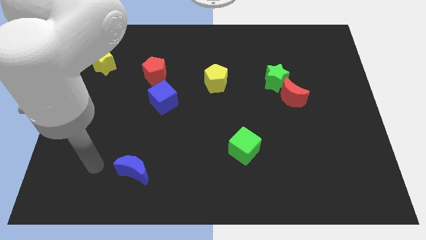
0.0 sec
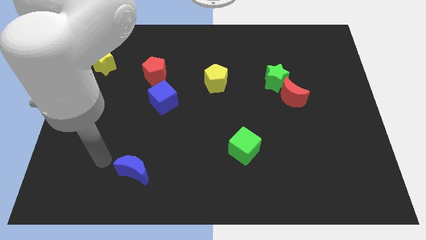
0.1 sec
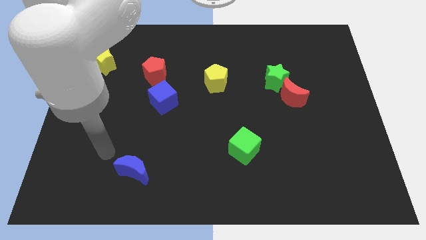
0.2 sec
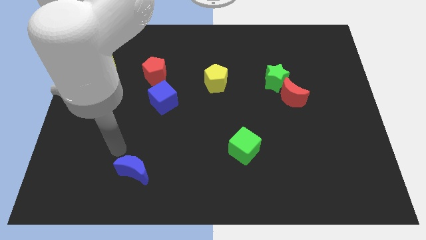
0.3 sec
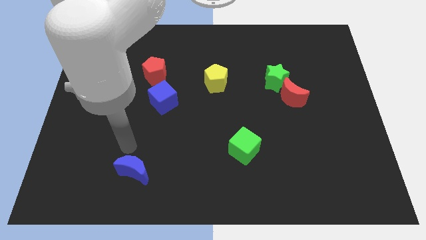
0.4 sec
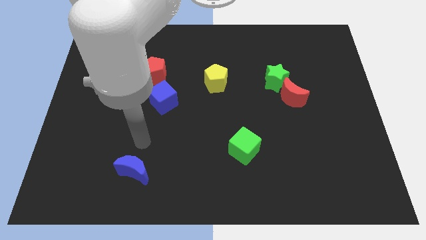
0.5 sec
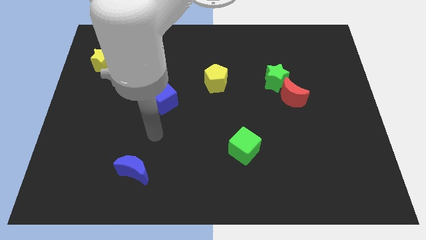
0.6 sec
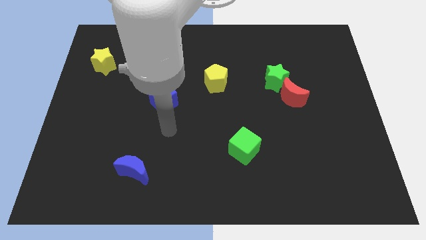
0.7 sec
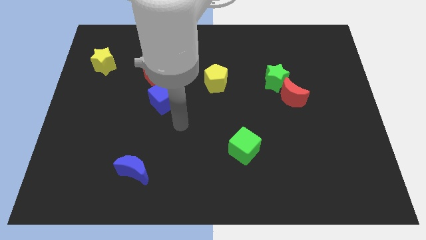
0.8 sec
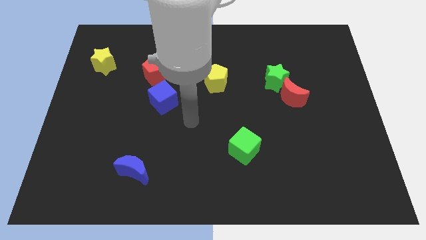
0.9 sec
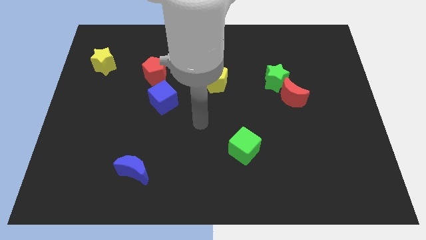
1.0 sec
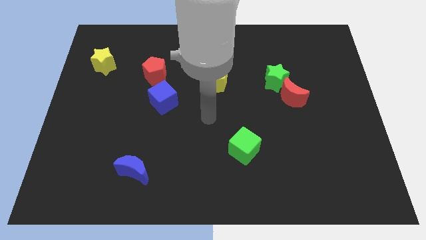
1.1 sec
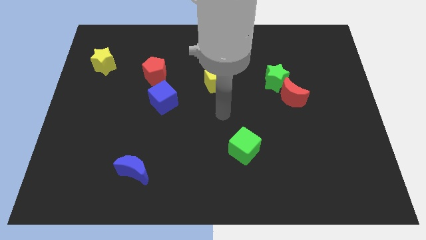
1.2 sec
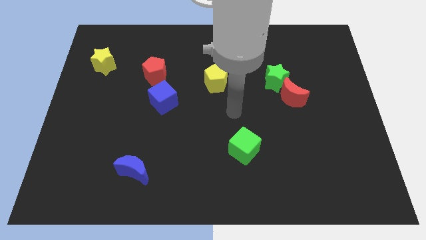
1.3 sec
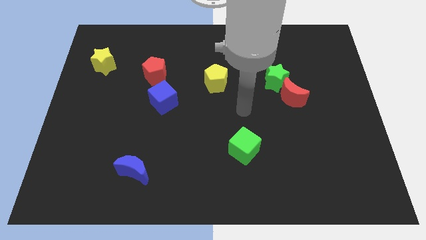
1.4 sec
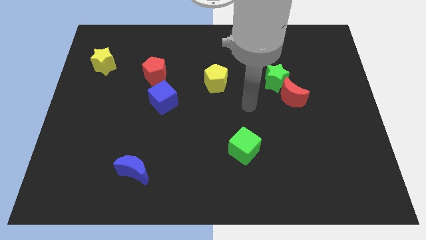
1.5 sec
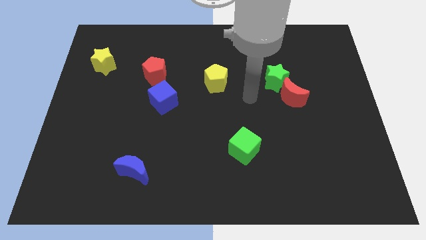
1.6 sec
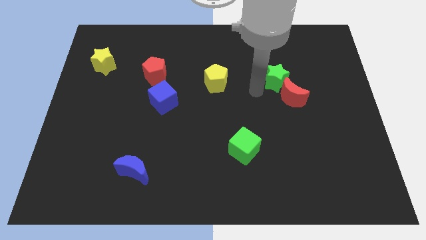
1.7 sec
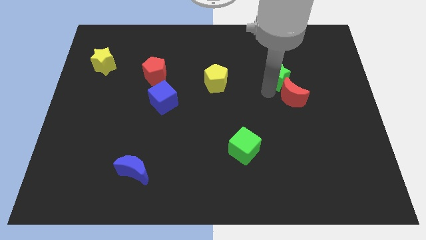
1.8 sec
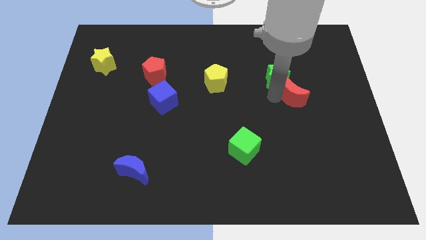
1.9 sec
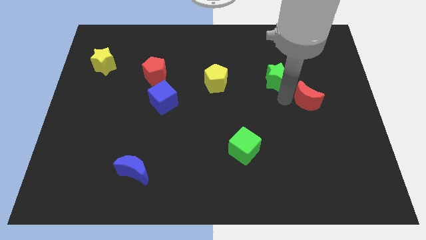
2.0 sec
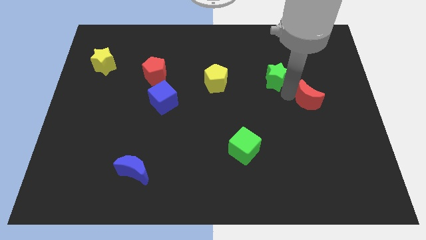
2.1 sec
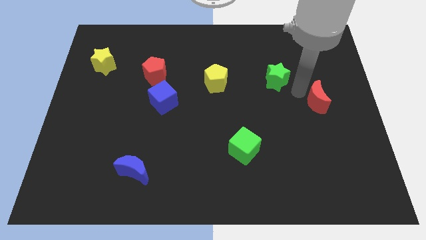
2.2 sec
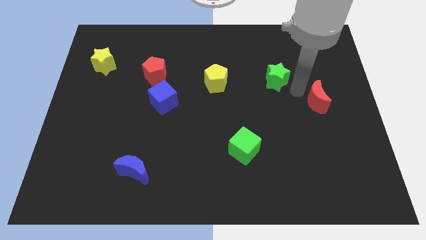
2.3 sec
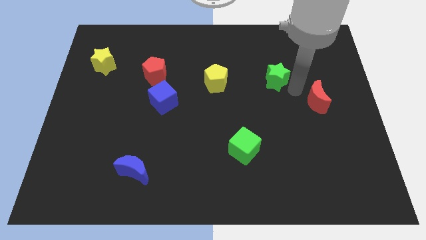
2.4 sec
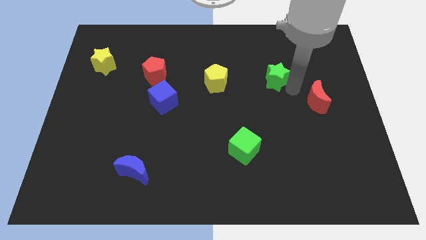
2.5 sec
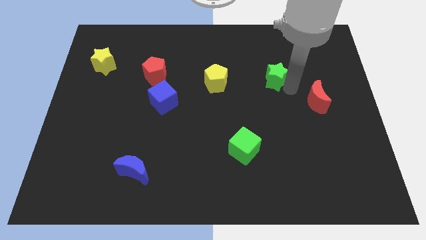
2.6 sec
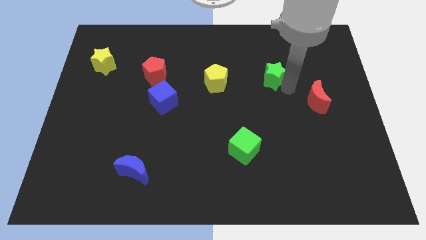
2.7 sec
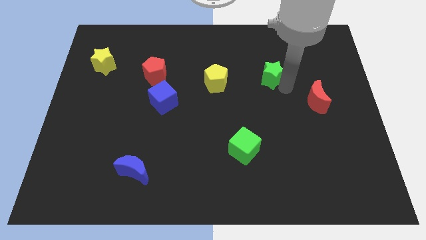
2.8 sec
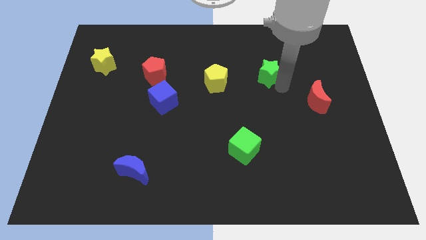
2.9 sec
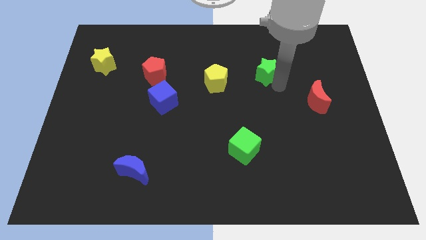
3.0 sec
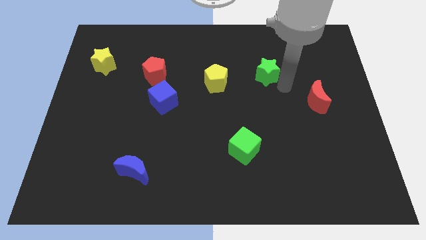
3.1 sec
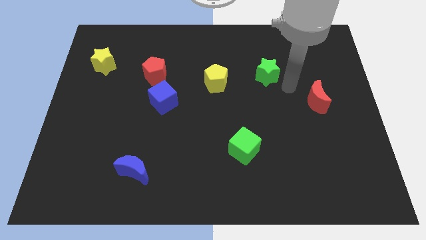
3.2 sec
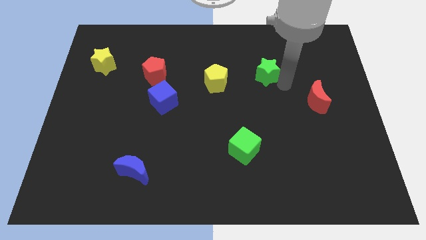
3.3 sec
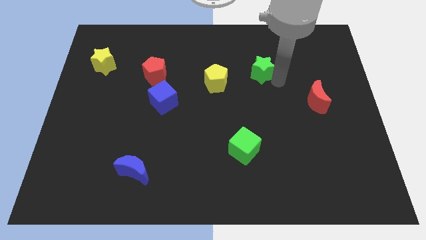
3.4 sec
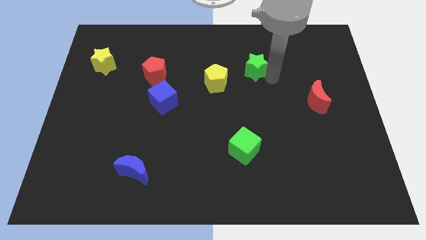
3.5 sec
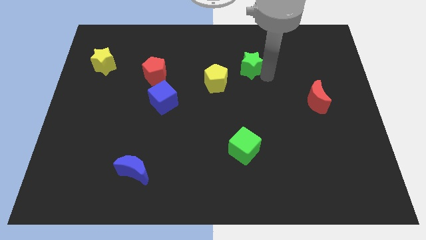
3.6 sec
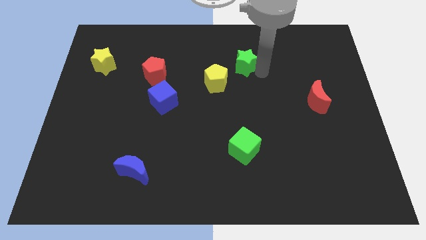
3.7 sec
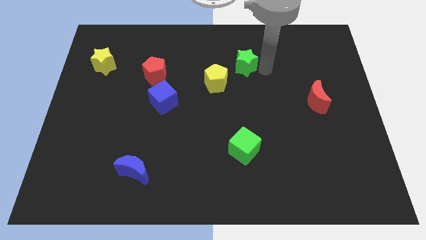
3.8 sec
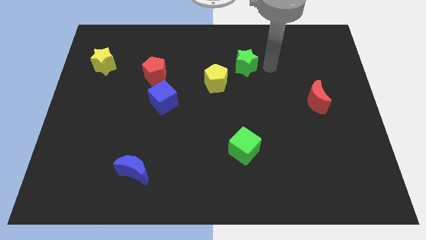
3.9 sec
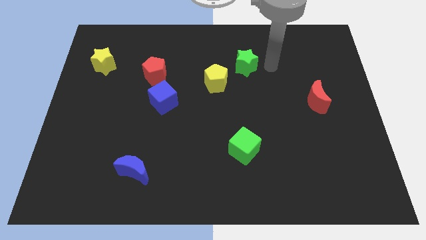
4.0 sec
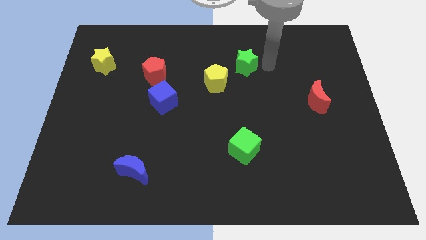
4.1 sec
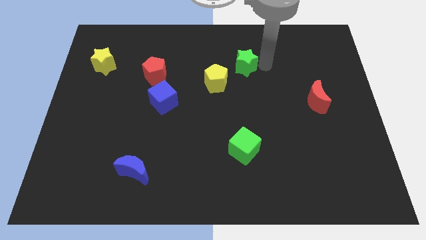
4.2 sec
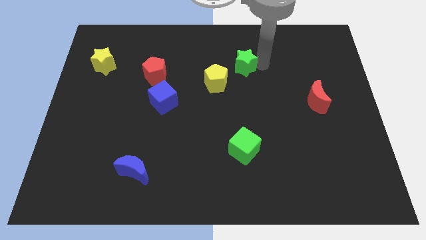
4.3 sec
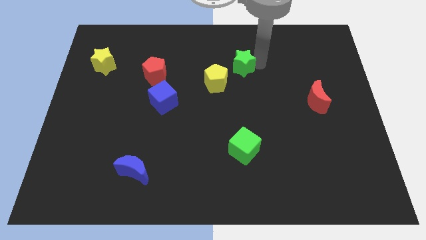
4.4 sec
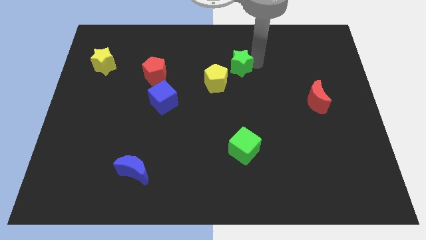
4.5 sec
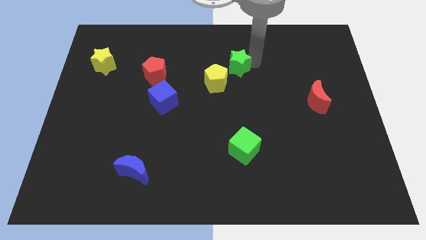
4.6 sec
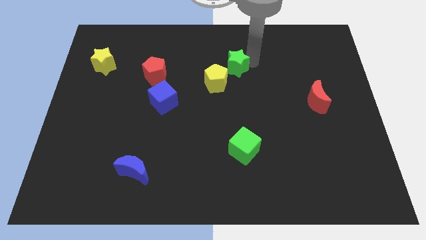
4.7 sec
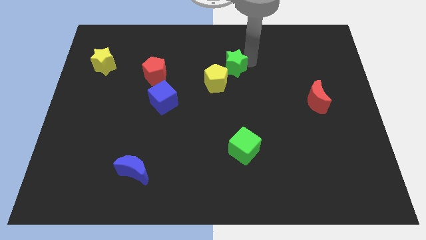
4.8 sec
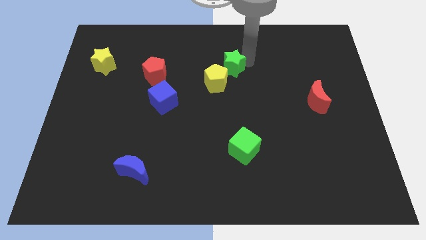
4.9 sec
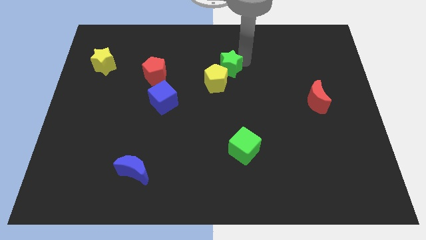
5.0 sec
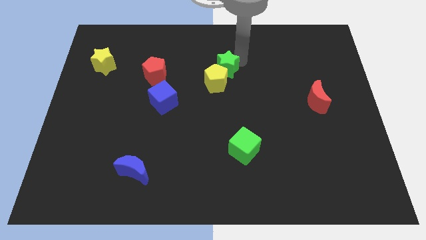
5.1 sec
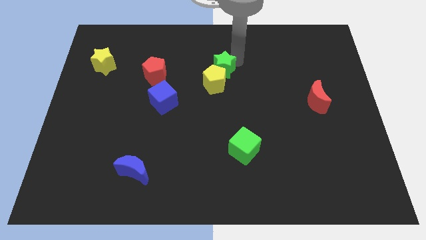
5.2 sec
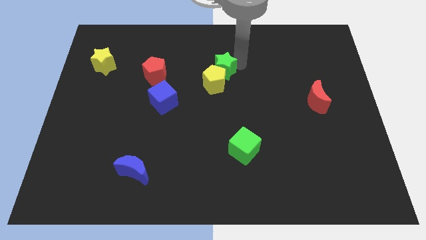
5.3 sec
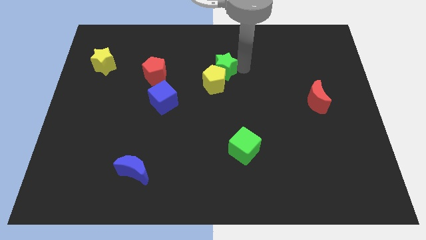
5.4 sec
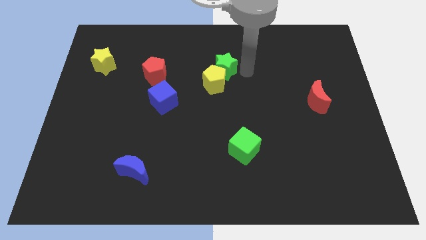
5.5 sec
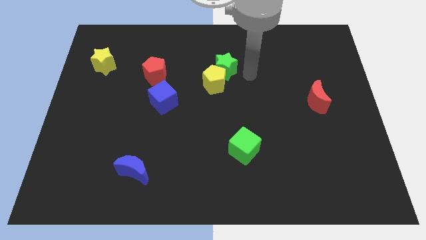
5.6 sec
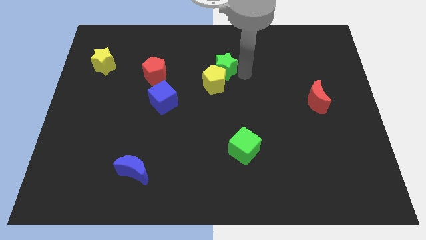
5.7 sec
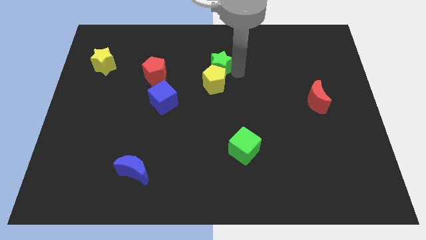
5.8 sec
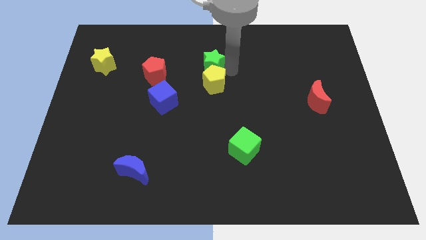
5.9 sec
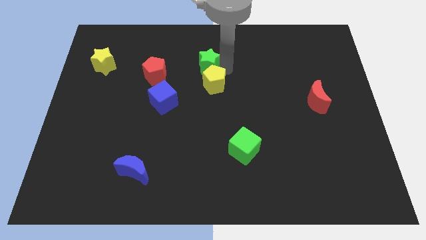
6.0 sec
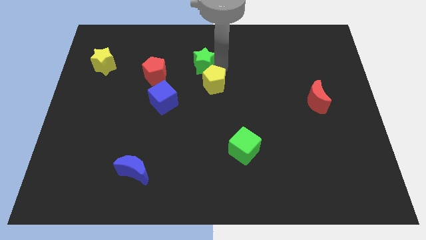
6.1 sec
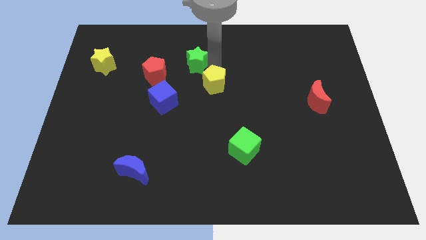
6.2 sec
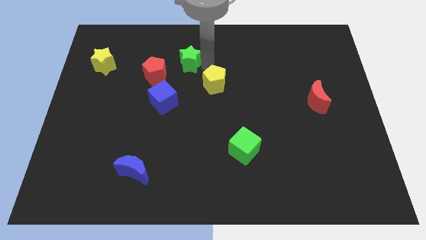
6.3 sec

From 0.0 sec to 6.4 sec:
push the green star diagonally up and to the right of the red pentagon

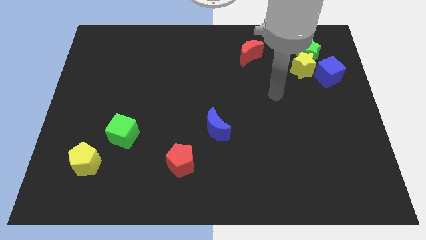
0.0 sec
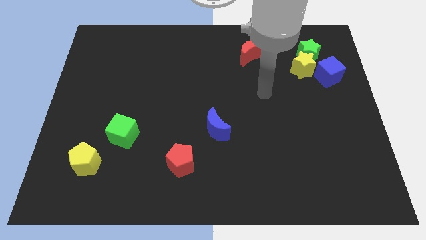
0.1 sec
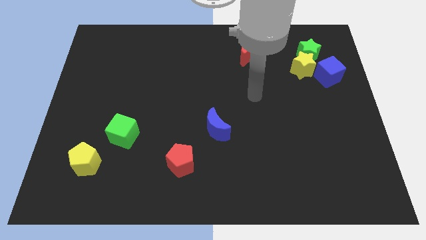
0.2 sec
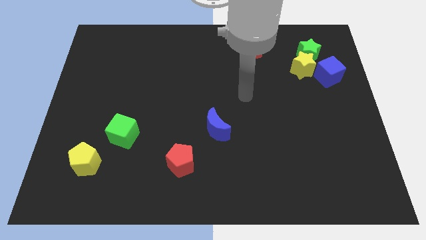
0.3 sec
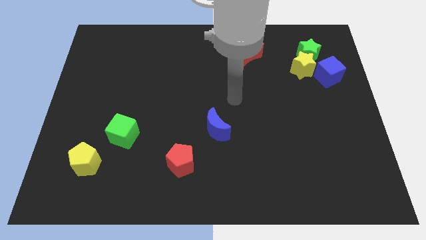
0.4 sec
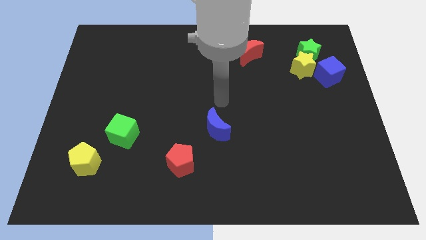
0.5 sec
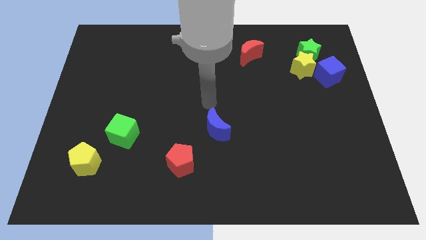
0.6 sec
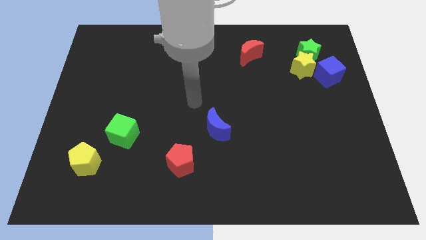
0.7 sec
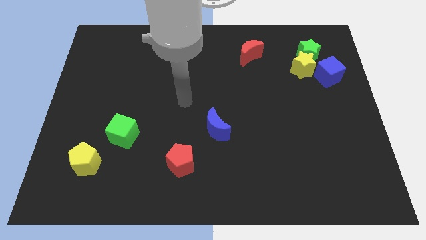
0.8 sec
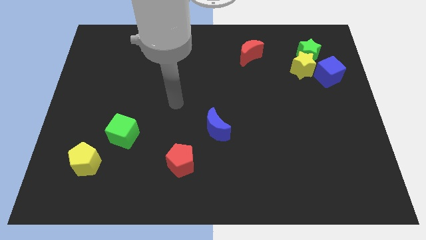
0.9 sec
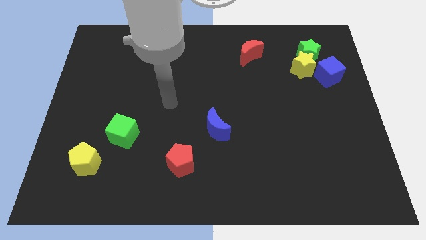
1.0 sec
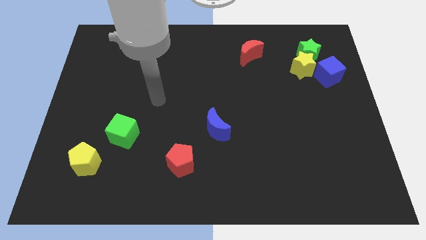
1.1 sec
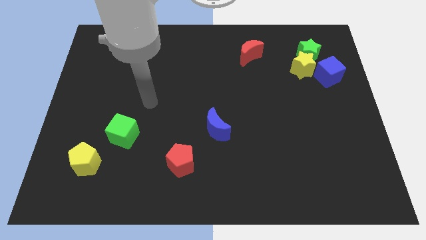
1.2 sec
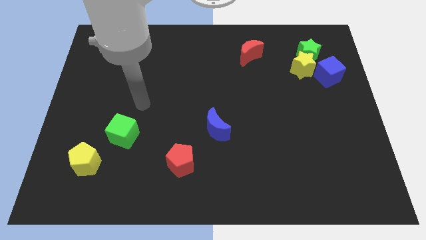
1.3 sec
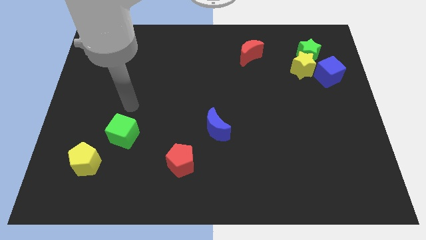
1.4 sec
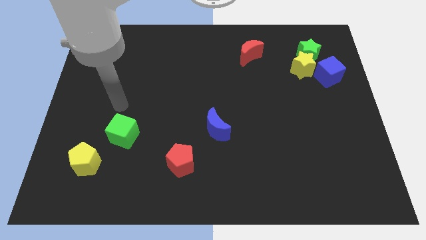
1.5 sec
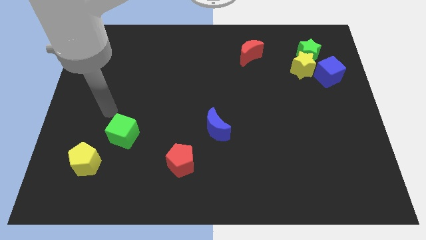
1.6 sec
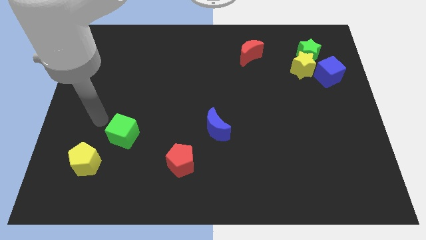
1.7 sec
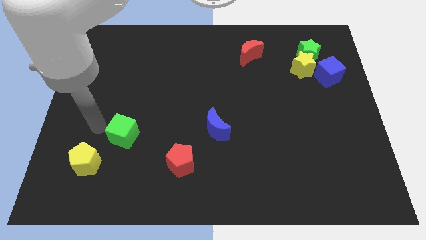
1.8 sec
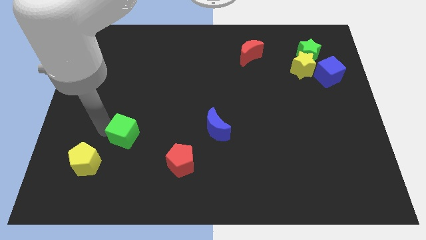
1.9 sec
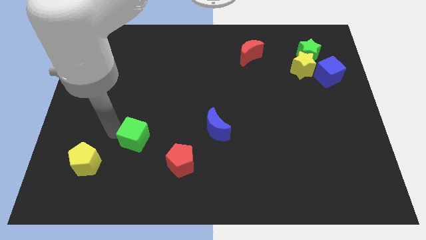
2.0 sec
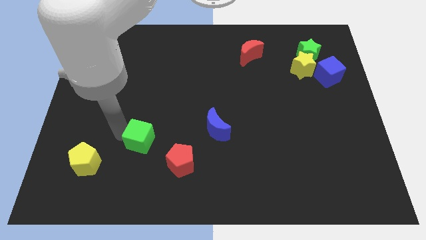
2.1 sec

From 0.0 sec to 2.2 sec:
push the green cube to the top left of the red pentagon
